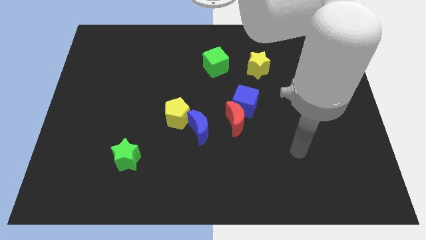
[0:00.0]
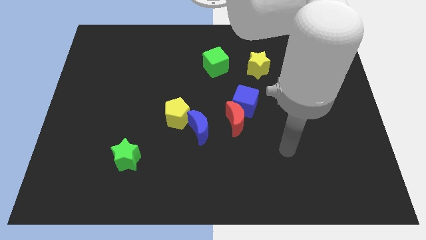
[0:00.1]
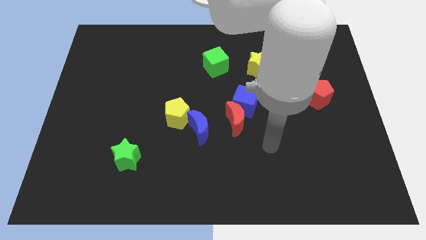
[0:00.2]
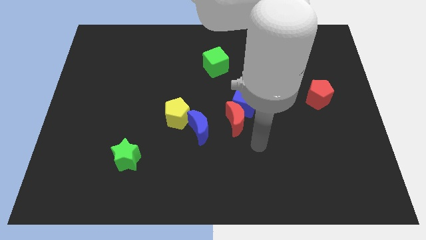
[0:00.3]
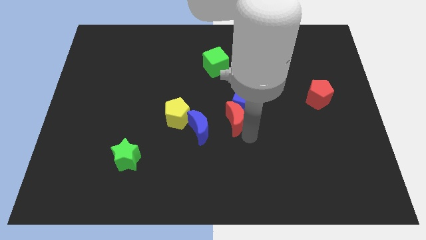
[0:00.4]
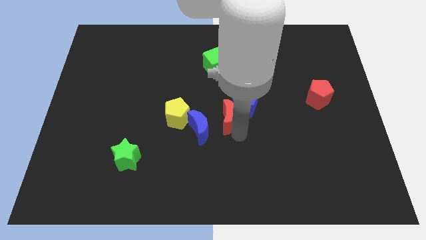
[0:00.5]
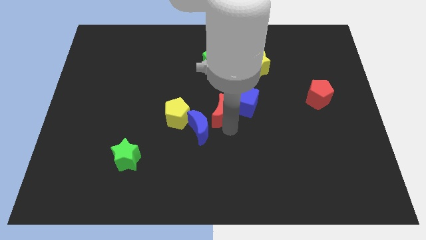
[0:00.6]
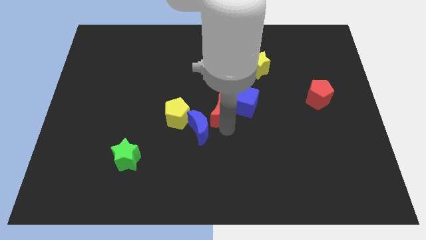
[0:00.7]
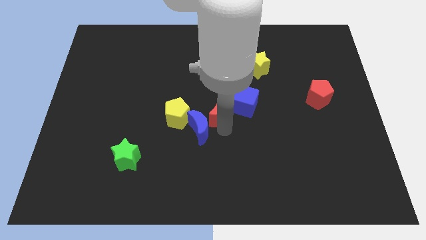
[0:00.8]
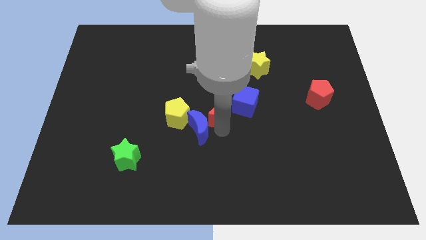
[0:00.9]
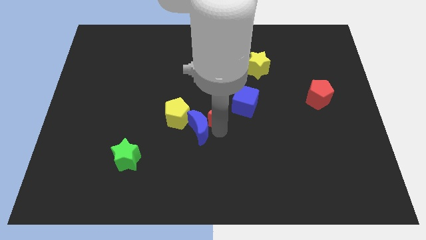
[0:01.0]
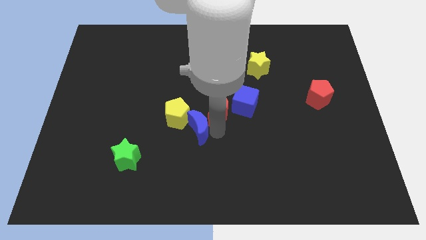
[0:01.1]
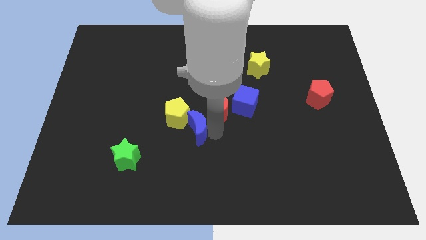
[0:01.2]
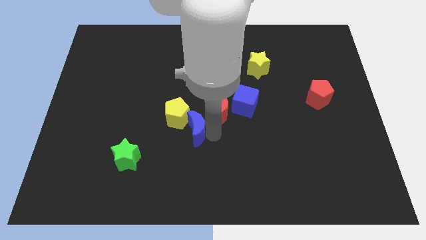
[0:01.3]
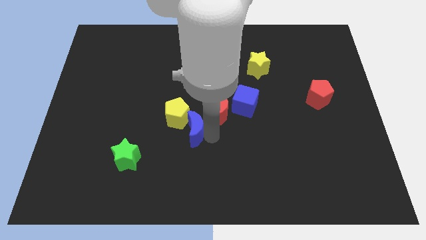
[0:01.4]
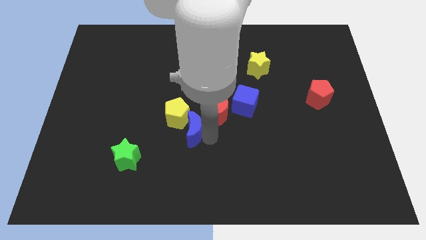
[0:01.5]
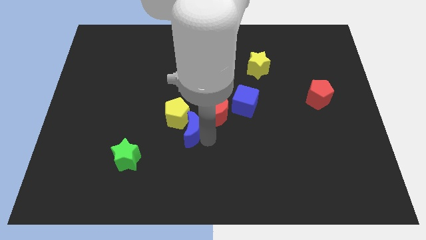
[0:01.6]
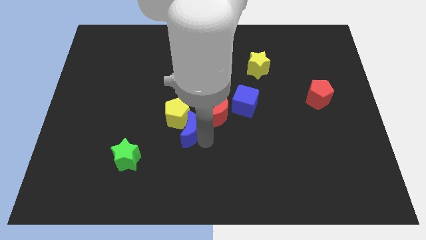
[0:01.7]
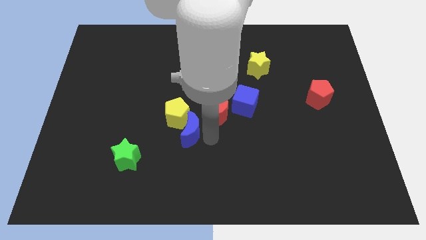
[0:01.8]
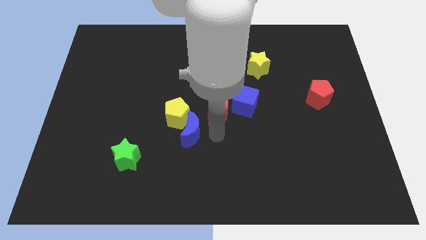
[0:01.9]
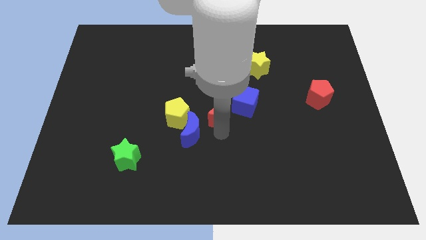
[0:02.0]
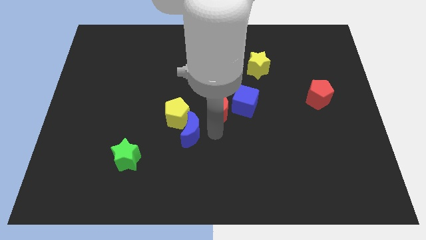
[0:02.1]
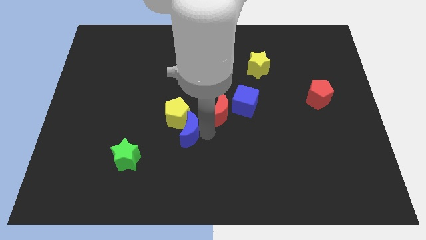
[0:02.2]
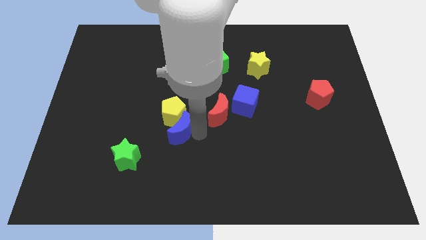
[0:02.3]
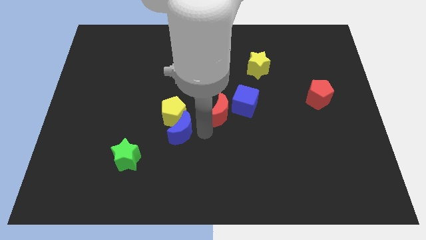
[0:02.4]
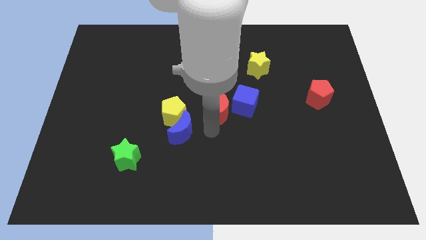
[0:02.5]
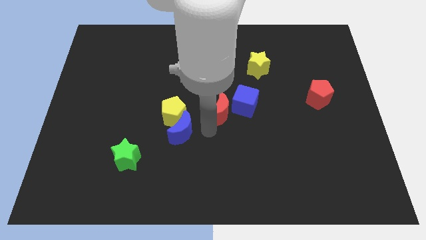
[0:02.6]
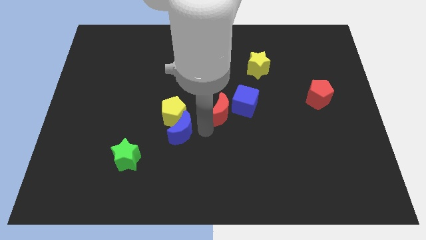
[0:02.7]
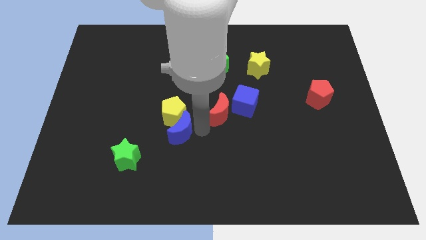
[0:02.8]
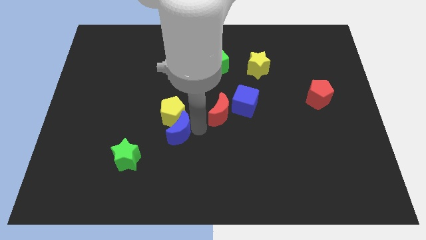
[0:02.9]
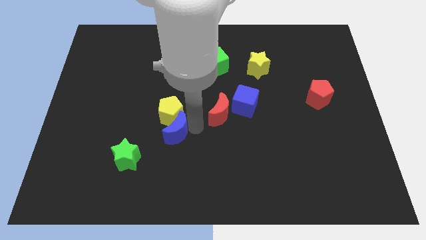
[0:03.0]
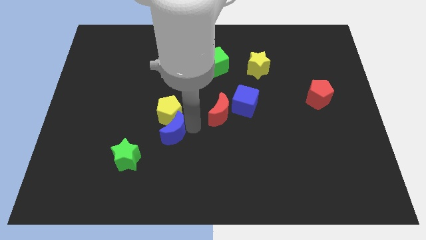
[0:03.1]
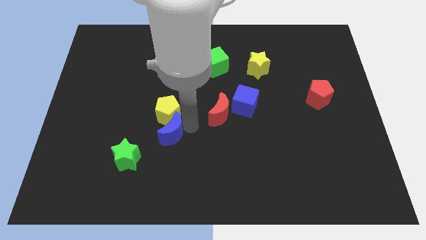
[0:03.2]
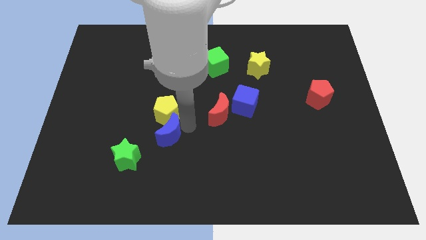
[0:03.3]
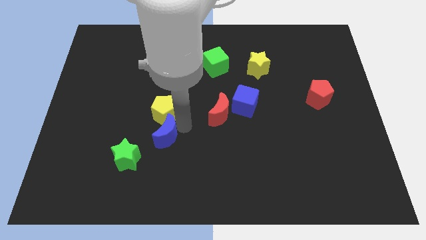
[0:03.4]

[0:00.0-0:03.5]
push the blue moon a bit to the left

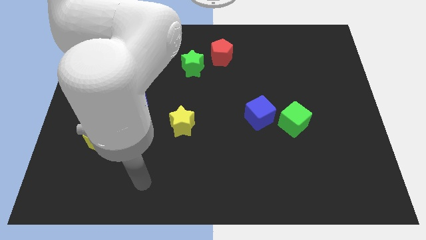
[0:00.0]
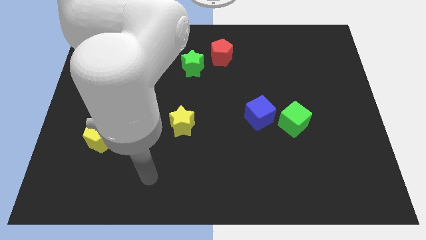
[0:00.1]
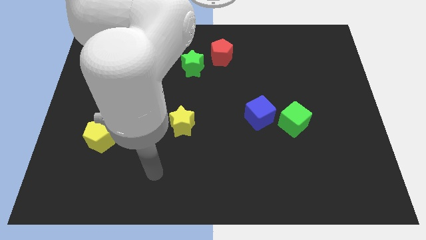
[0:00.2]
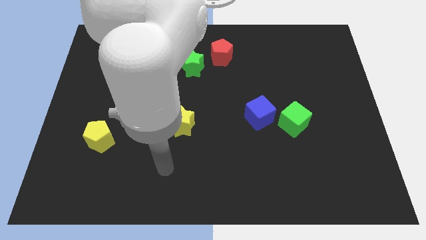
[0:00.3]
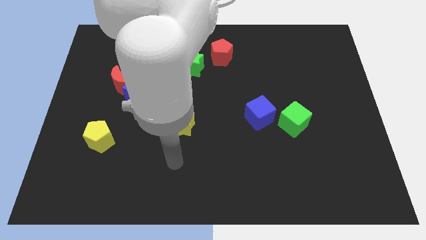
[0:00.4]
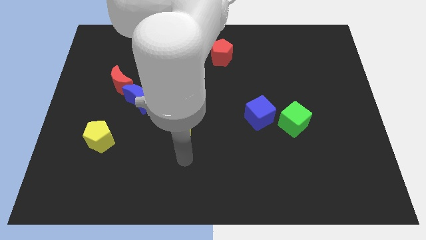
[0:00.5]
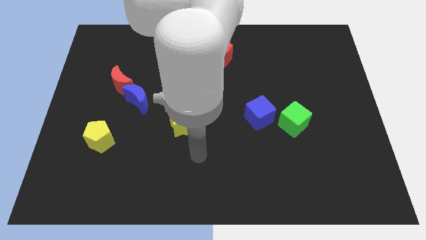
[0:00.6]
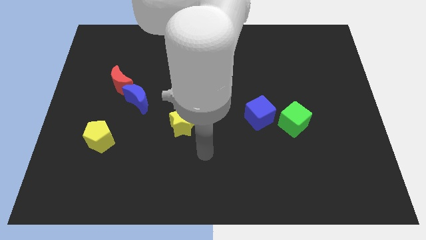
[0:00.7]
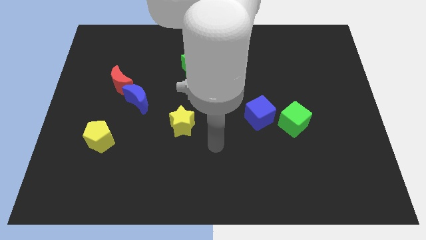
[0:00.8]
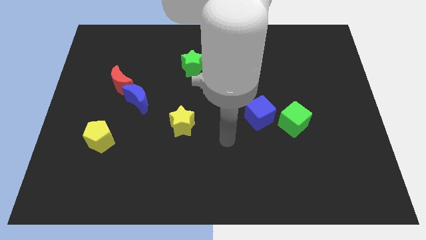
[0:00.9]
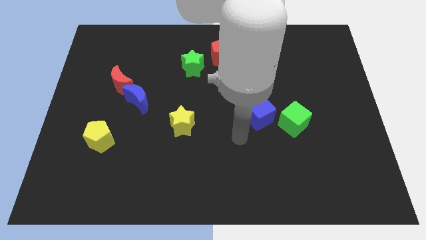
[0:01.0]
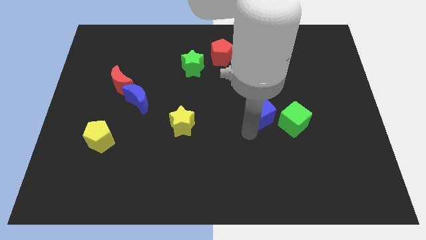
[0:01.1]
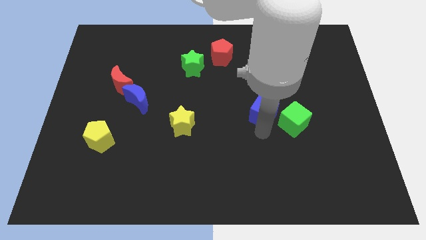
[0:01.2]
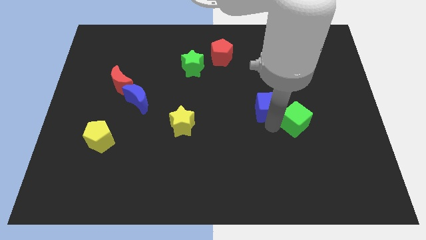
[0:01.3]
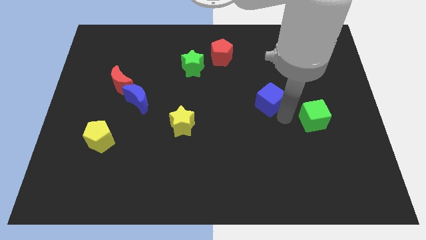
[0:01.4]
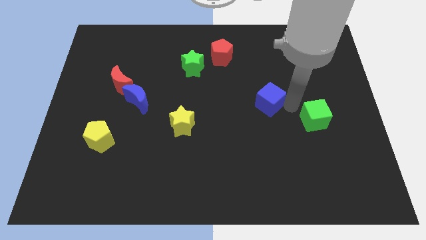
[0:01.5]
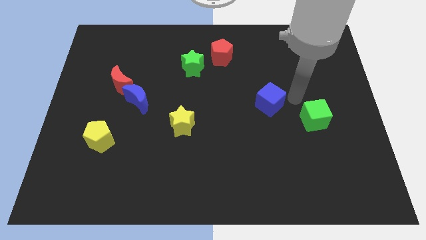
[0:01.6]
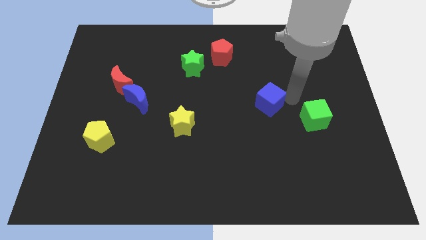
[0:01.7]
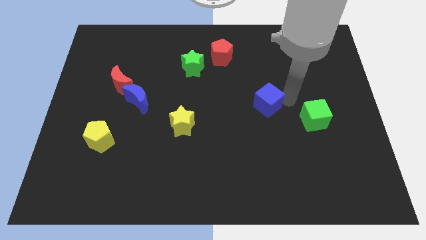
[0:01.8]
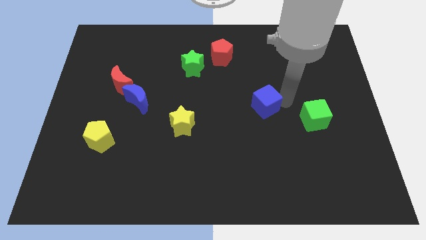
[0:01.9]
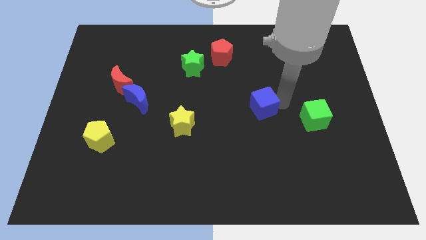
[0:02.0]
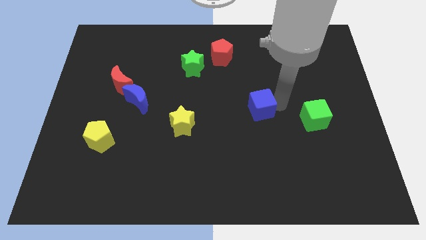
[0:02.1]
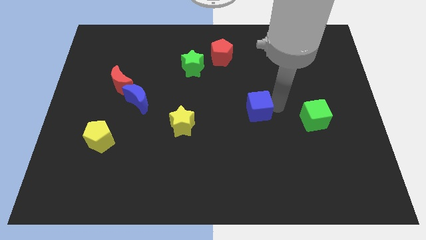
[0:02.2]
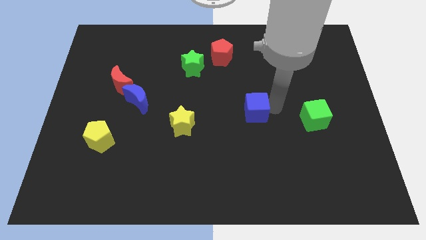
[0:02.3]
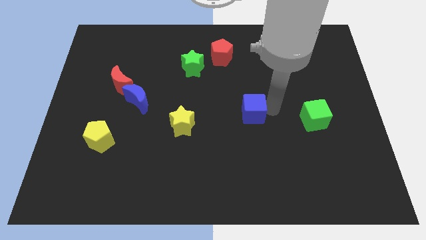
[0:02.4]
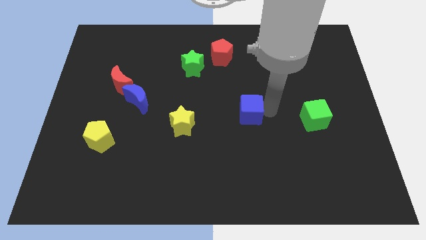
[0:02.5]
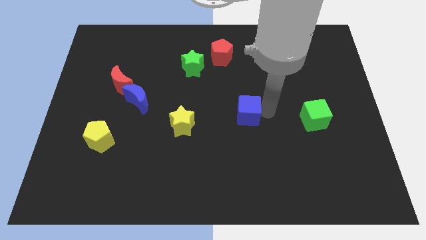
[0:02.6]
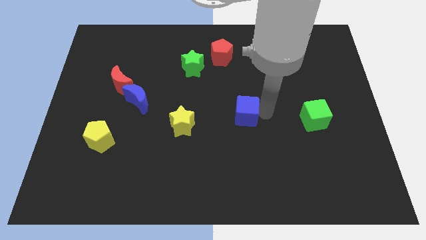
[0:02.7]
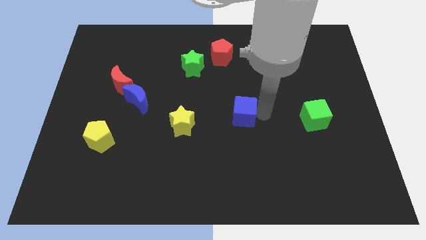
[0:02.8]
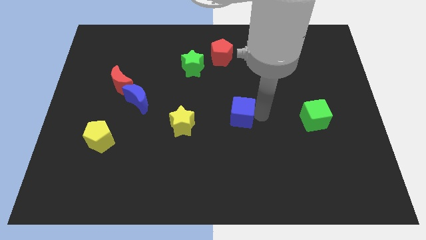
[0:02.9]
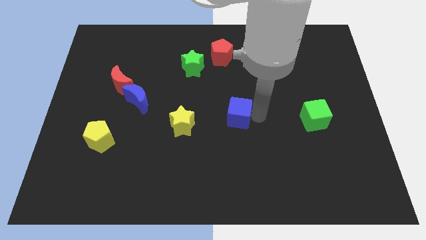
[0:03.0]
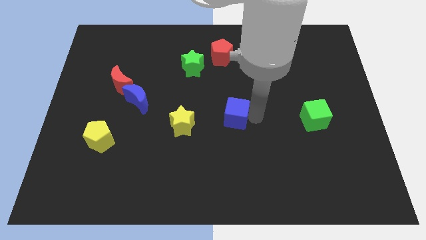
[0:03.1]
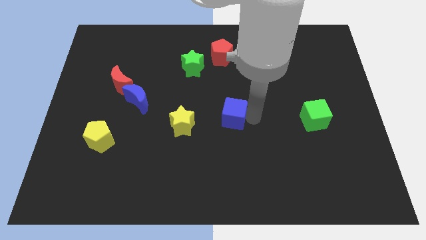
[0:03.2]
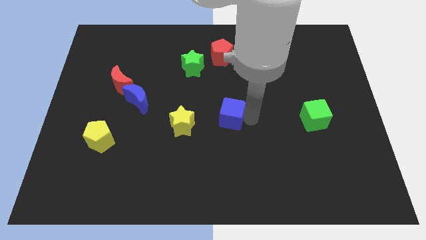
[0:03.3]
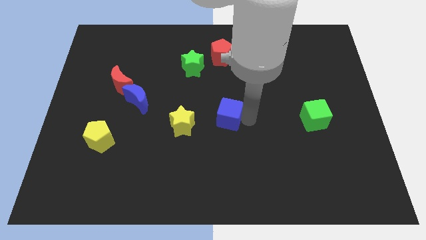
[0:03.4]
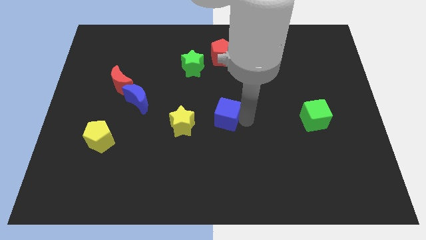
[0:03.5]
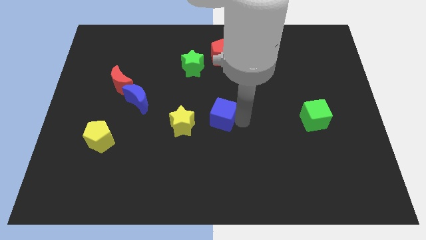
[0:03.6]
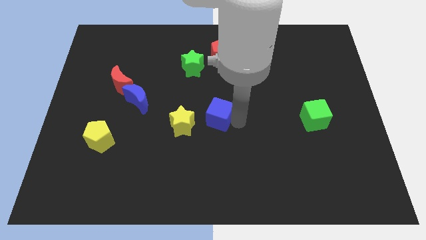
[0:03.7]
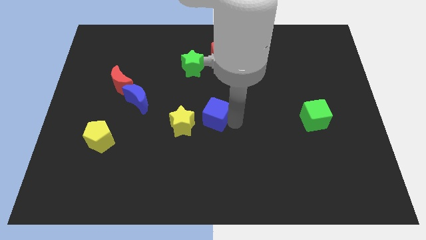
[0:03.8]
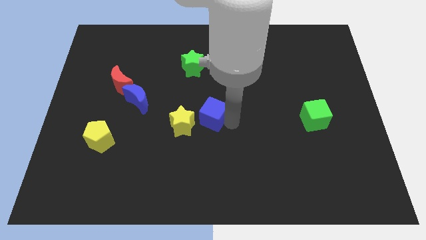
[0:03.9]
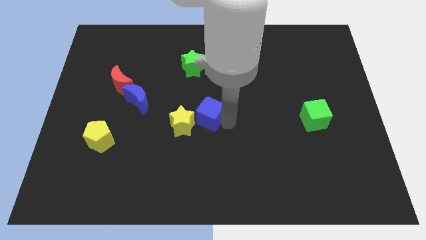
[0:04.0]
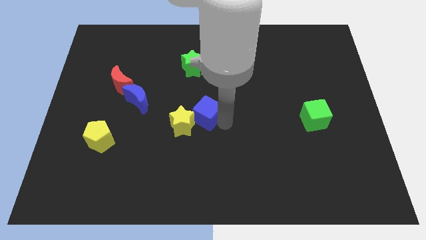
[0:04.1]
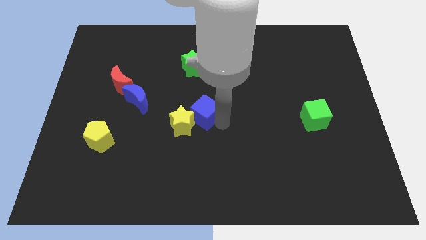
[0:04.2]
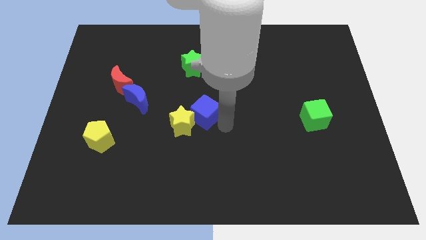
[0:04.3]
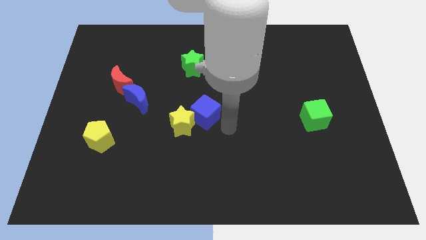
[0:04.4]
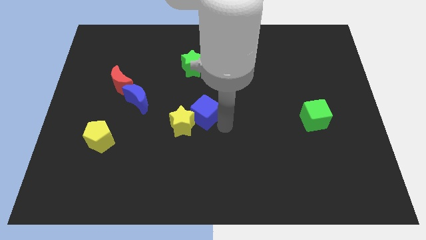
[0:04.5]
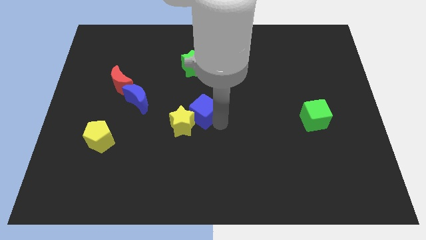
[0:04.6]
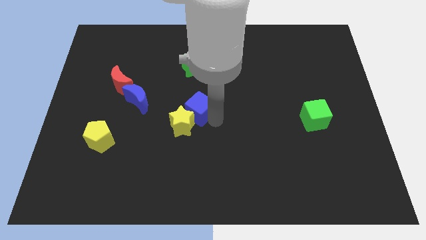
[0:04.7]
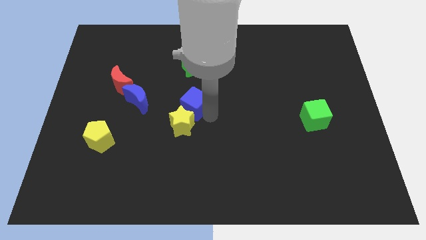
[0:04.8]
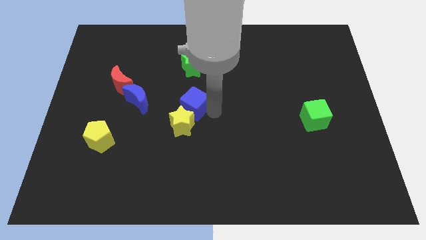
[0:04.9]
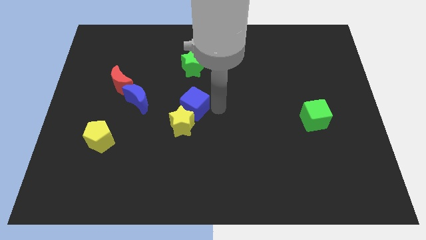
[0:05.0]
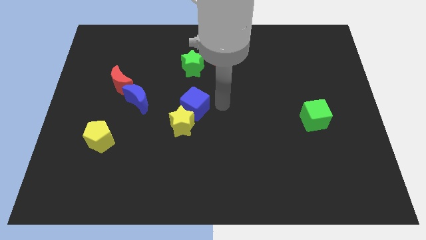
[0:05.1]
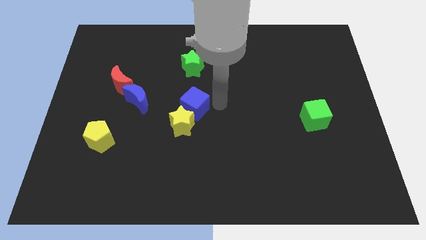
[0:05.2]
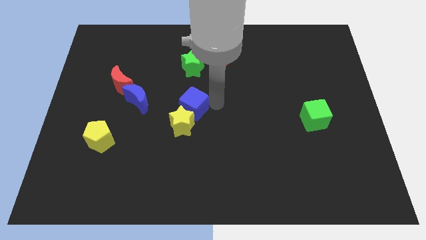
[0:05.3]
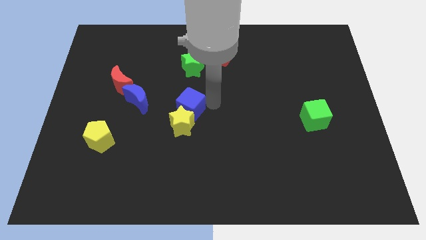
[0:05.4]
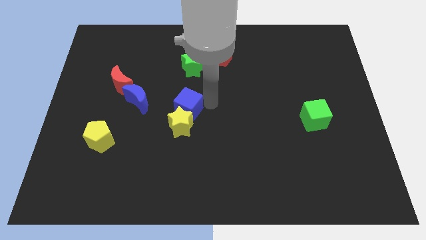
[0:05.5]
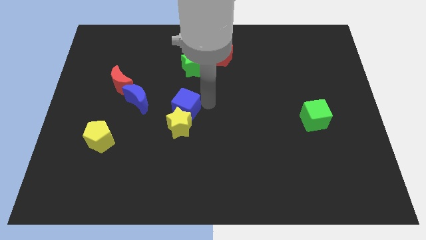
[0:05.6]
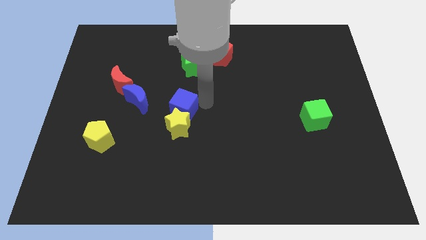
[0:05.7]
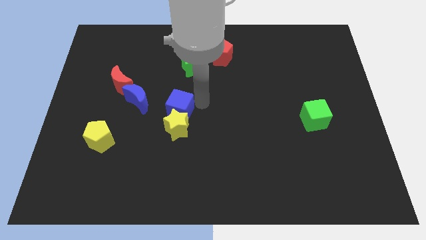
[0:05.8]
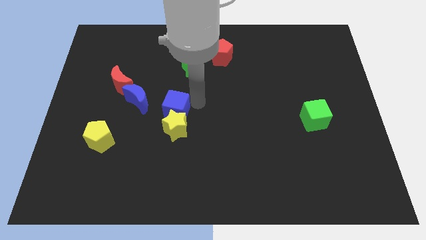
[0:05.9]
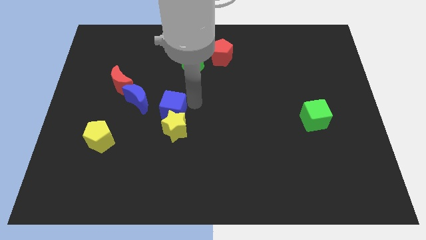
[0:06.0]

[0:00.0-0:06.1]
slide the blue cube to the left
